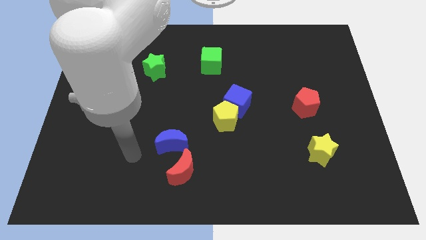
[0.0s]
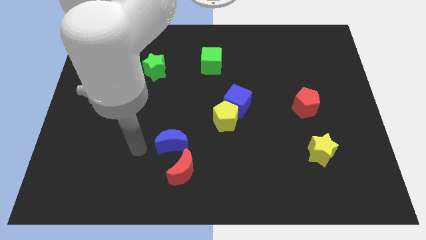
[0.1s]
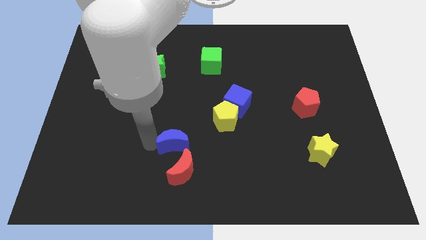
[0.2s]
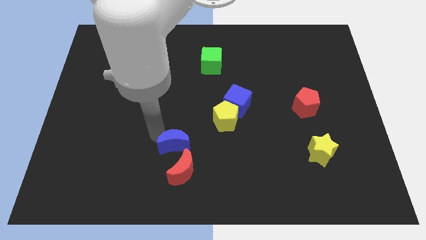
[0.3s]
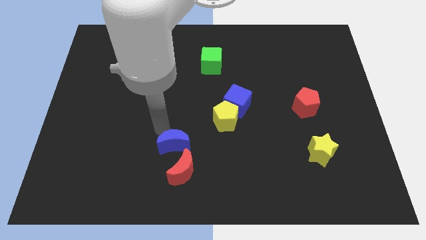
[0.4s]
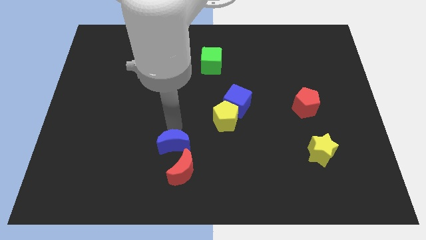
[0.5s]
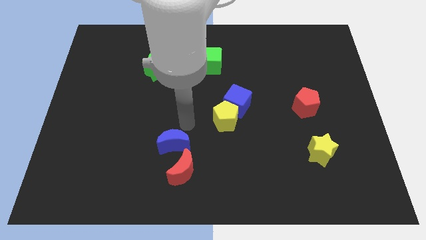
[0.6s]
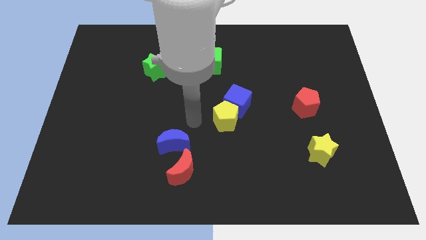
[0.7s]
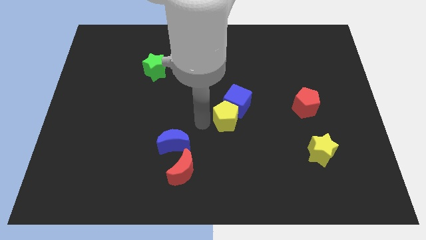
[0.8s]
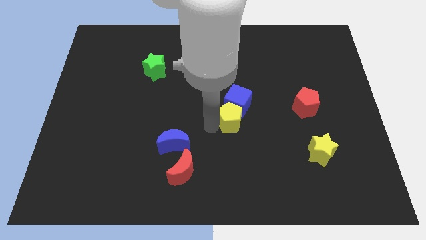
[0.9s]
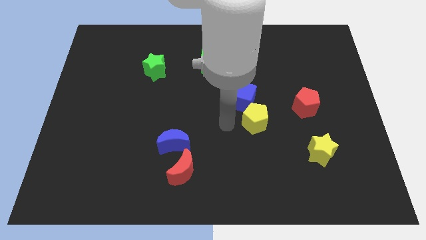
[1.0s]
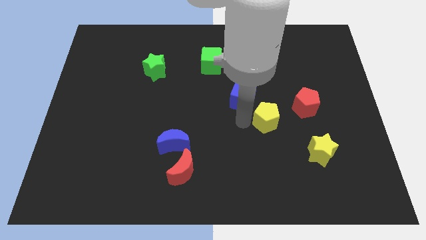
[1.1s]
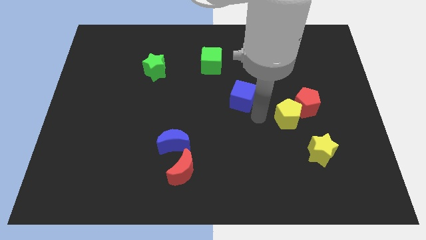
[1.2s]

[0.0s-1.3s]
move the blue cube away from the yellow pentagon

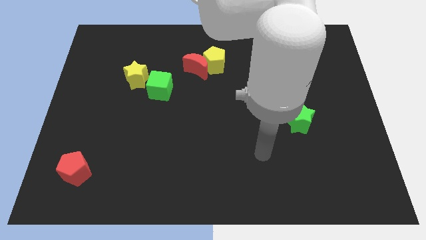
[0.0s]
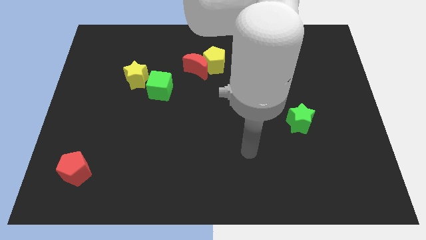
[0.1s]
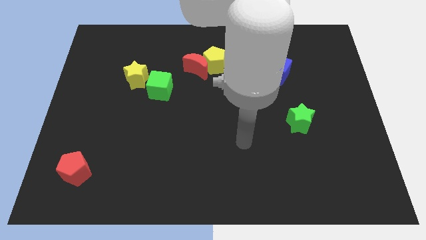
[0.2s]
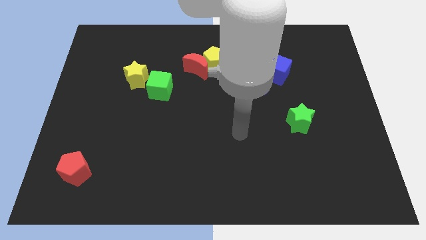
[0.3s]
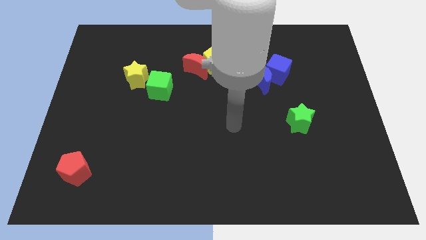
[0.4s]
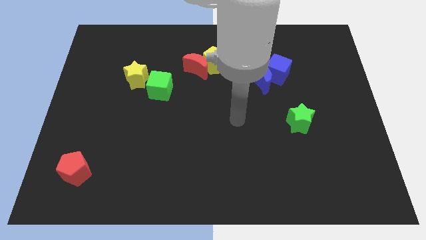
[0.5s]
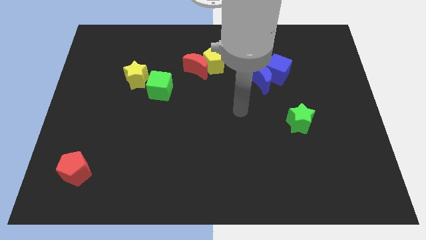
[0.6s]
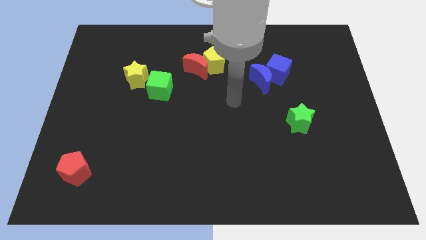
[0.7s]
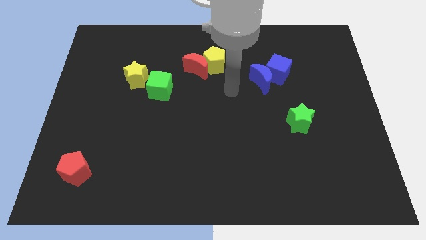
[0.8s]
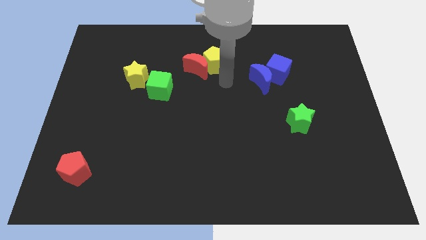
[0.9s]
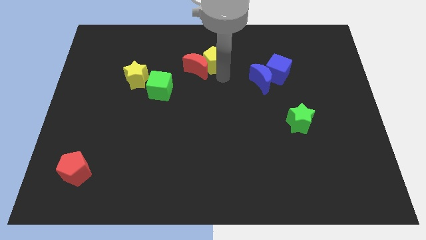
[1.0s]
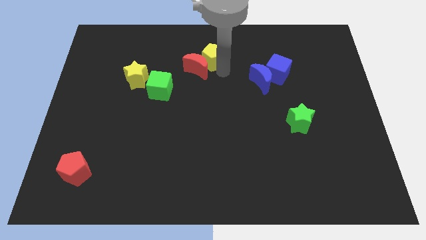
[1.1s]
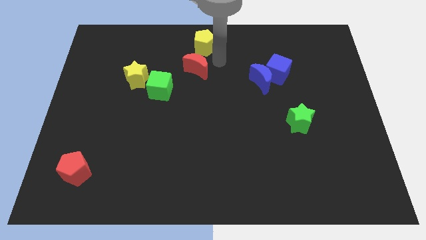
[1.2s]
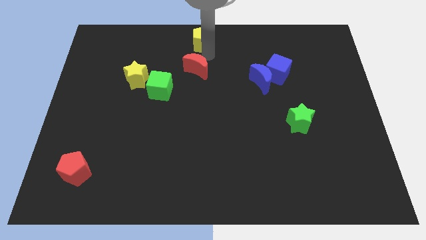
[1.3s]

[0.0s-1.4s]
separate the red moon from the yellow pentagon

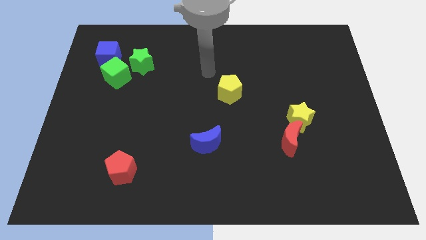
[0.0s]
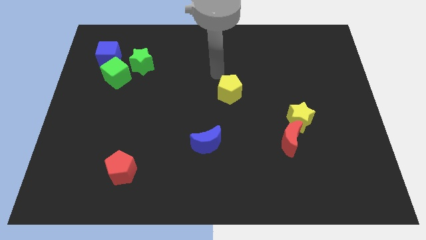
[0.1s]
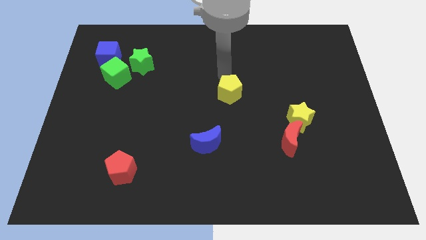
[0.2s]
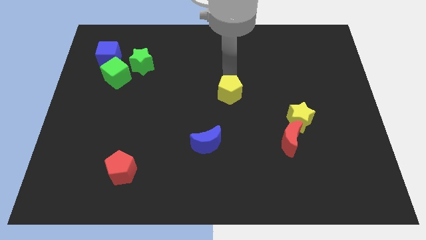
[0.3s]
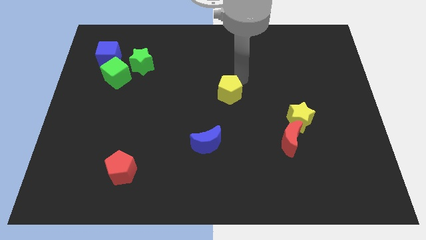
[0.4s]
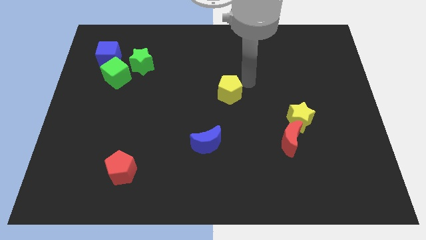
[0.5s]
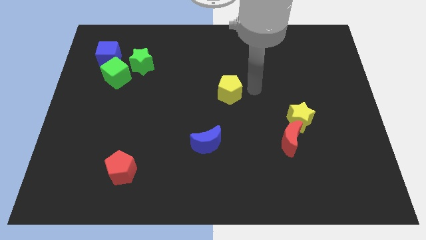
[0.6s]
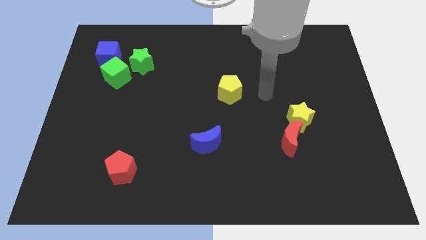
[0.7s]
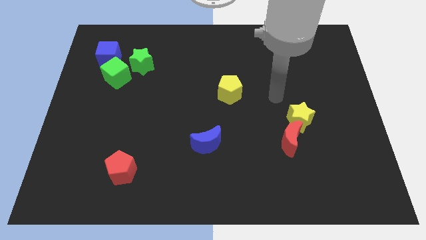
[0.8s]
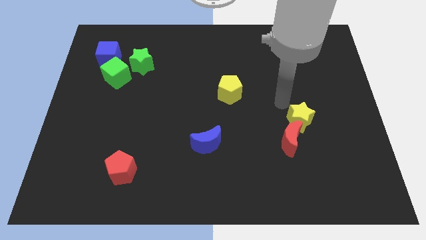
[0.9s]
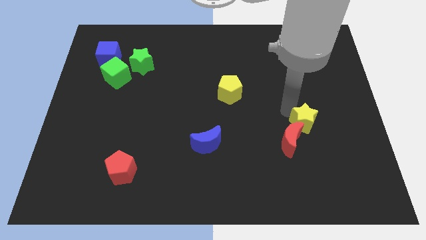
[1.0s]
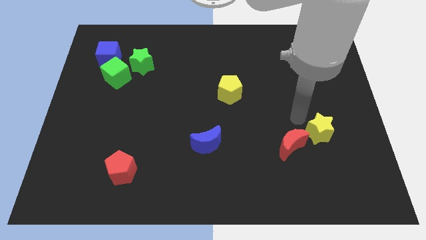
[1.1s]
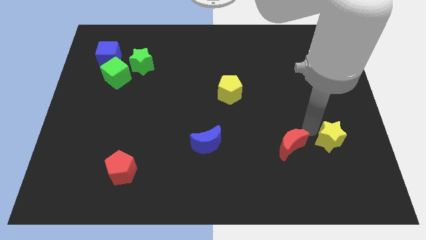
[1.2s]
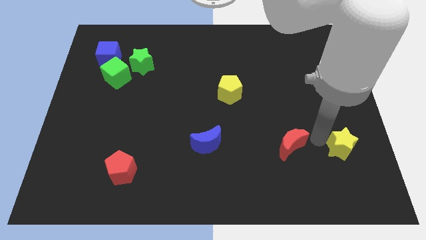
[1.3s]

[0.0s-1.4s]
move the red moon away from the yellow star

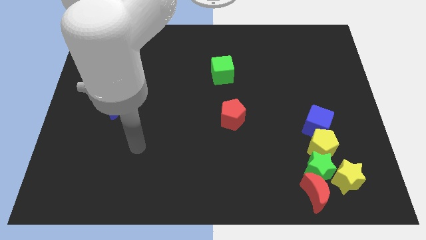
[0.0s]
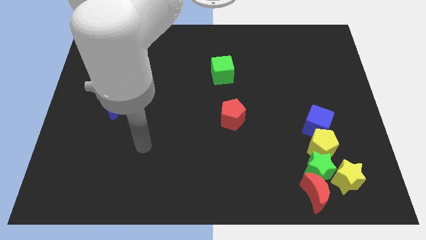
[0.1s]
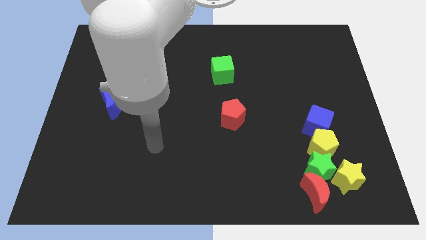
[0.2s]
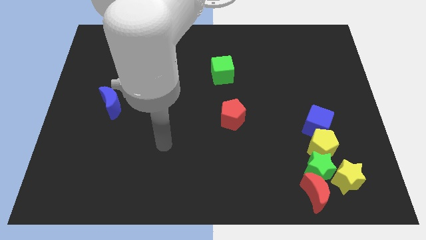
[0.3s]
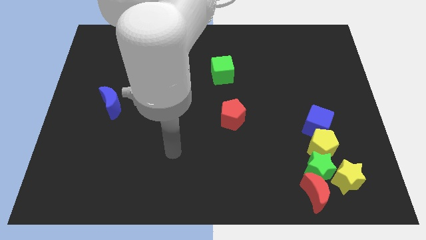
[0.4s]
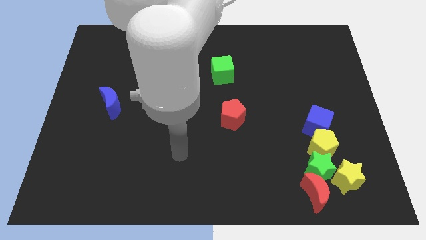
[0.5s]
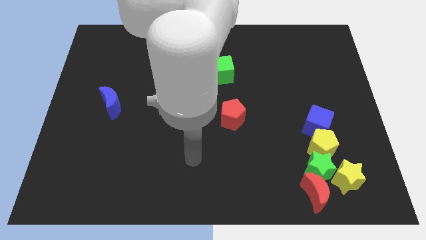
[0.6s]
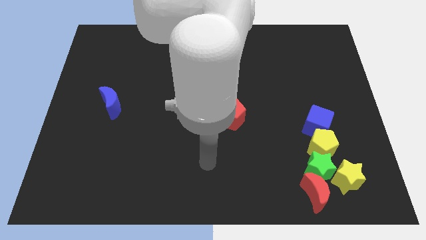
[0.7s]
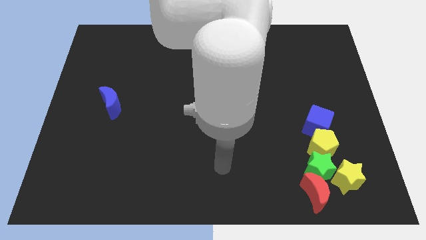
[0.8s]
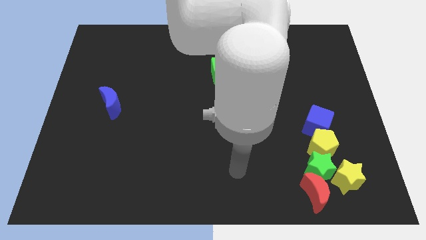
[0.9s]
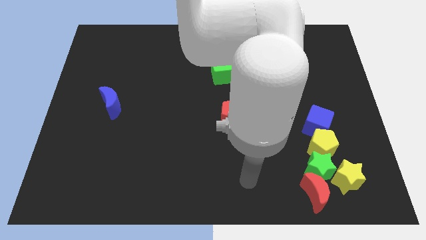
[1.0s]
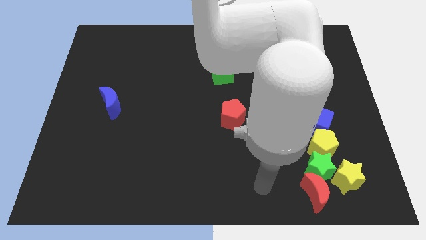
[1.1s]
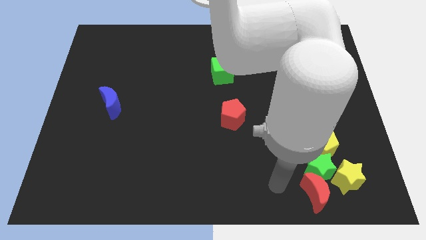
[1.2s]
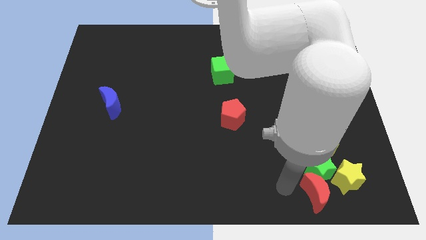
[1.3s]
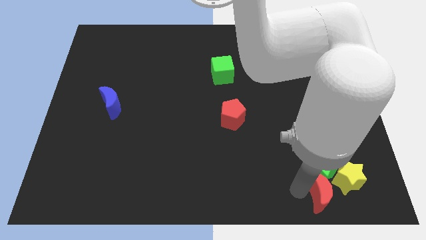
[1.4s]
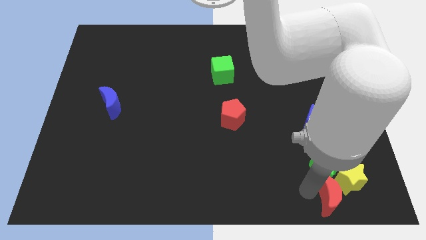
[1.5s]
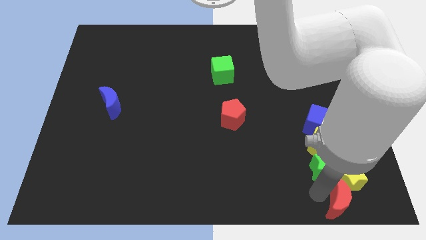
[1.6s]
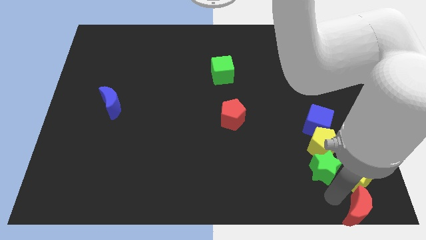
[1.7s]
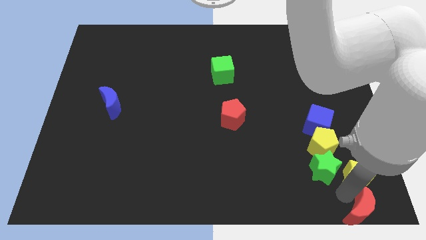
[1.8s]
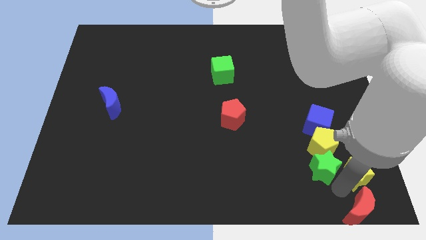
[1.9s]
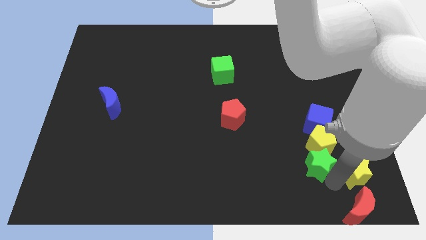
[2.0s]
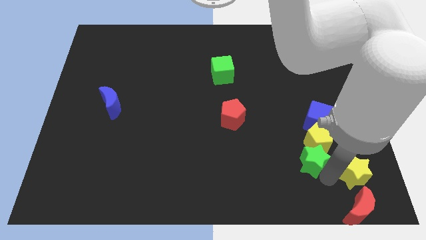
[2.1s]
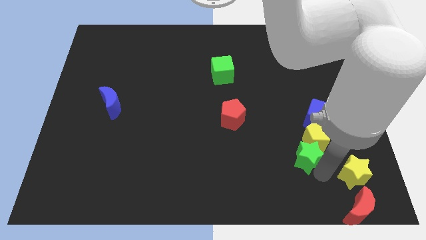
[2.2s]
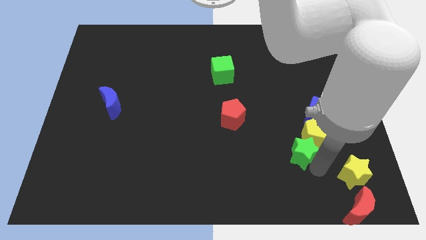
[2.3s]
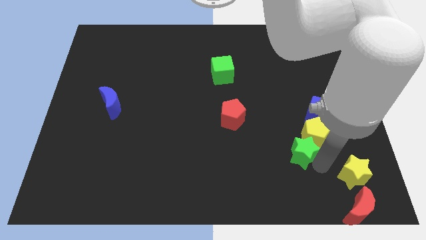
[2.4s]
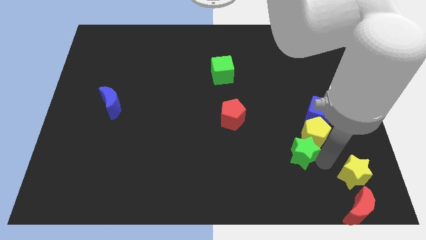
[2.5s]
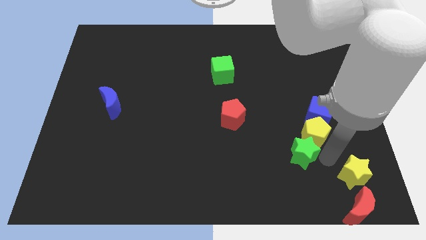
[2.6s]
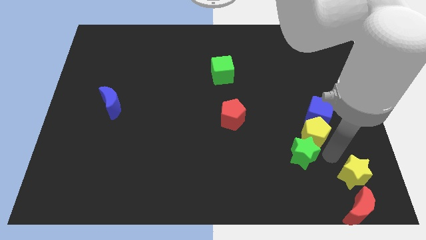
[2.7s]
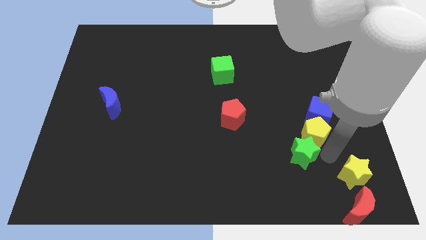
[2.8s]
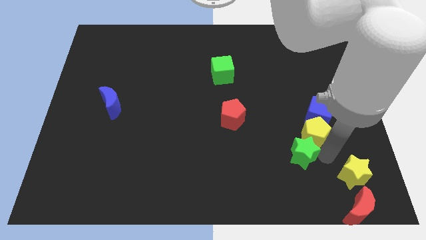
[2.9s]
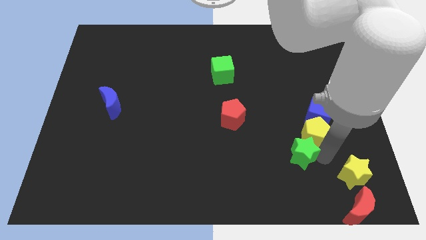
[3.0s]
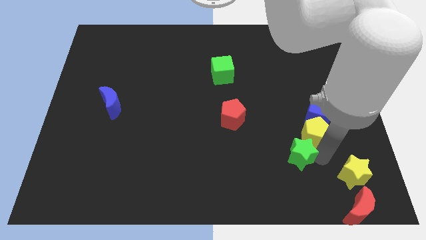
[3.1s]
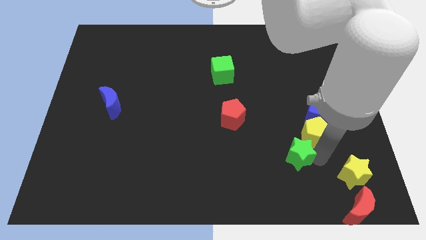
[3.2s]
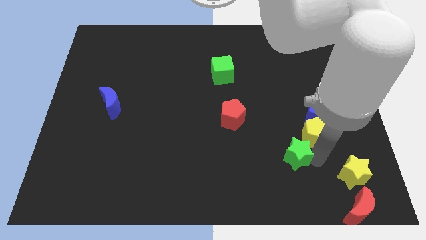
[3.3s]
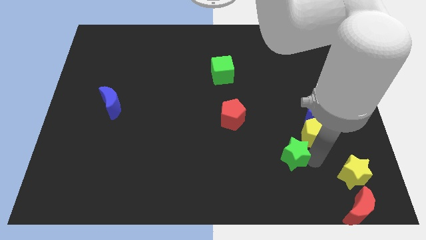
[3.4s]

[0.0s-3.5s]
separate the green star from the group of blocks

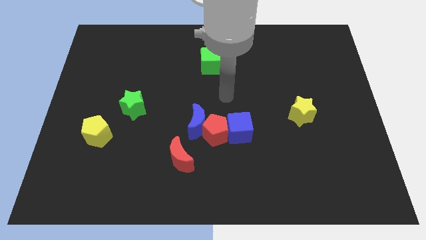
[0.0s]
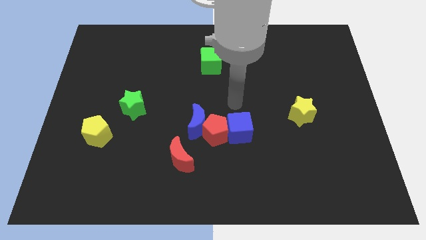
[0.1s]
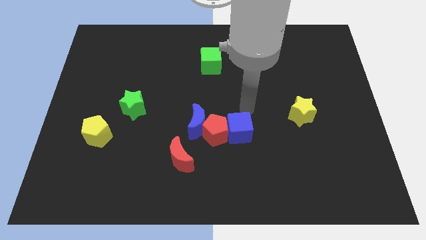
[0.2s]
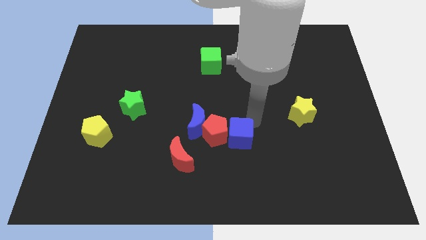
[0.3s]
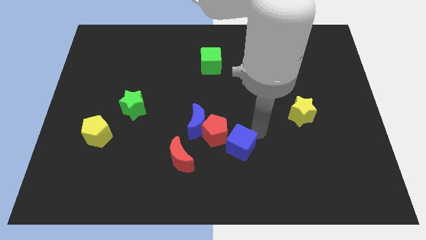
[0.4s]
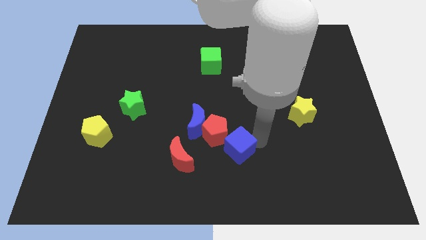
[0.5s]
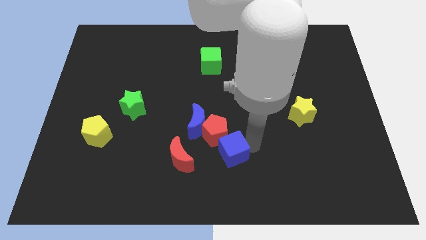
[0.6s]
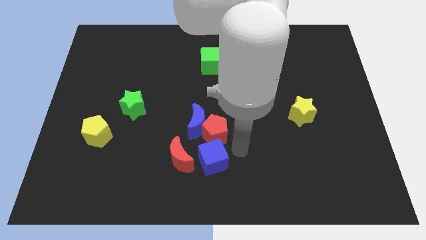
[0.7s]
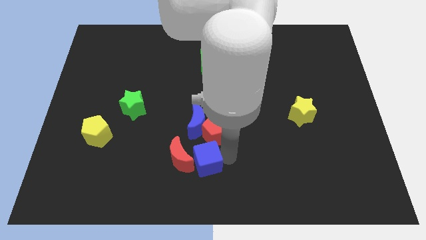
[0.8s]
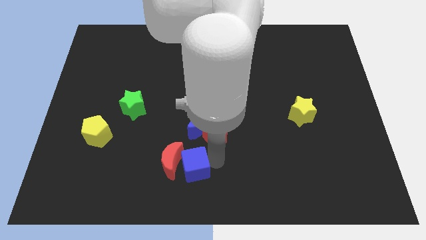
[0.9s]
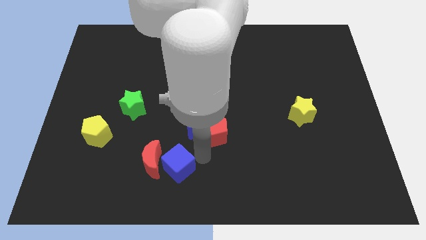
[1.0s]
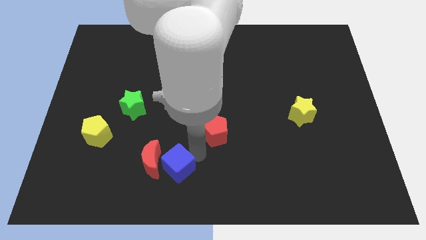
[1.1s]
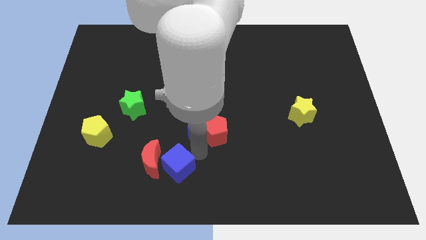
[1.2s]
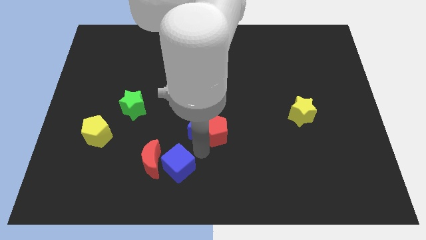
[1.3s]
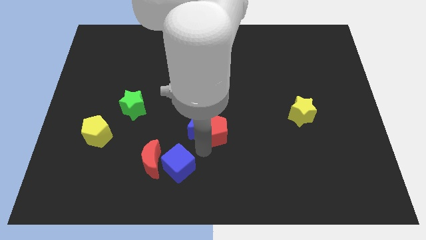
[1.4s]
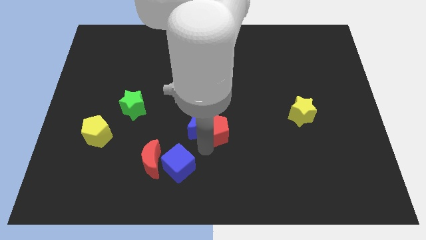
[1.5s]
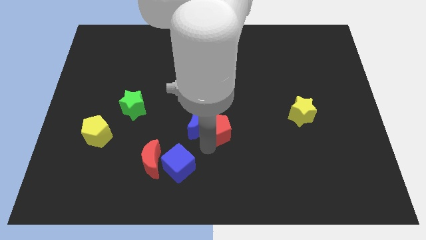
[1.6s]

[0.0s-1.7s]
pull the red pentagon apart from the blue moon, blue cube, and red moon
